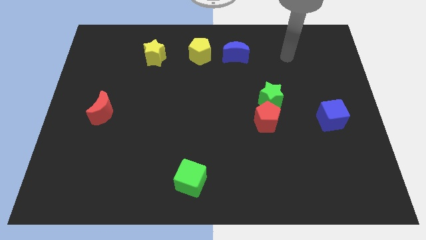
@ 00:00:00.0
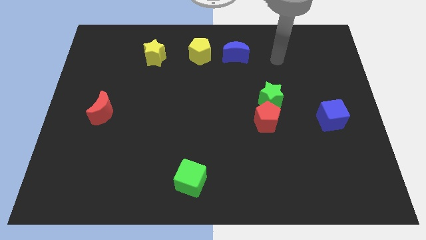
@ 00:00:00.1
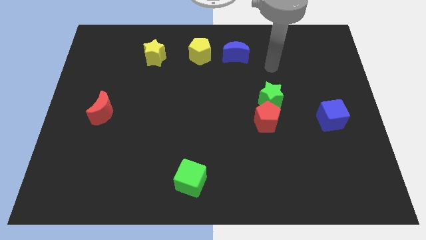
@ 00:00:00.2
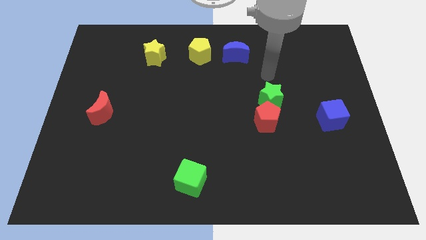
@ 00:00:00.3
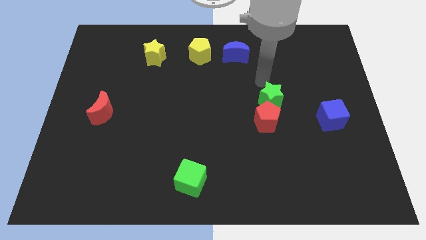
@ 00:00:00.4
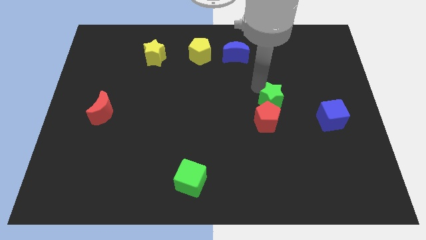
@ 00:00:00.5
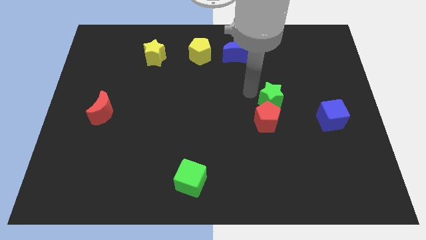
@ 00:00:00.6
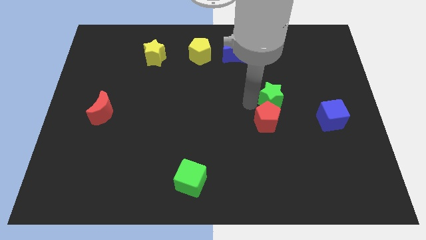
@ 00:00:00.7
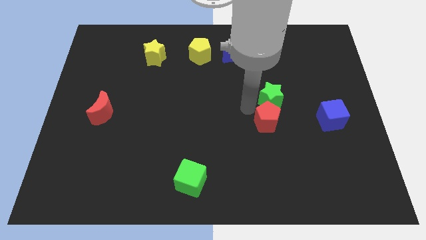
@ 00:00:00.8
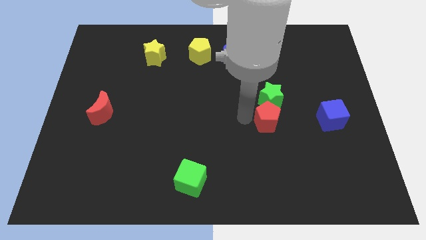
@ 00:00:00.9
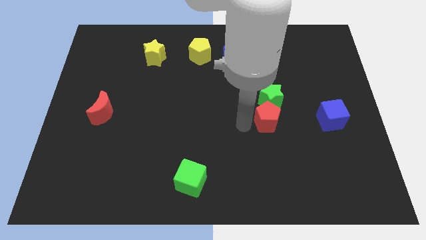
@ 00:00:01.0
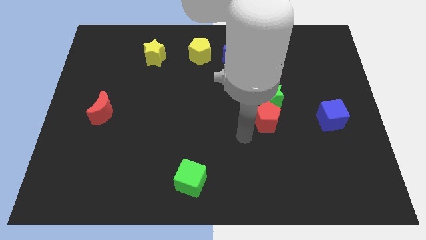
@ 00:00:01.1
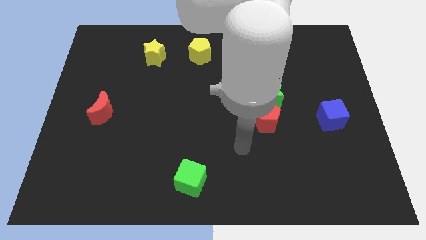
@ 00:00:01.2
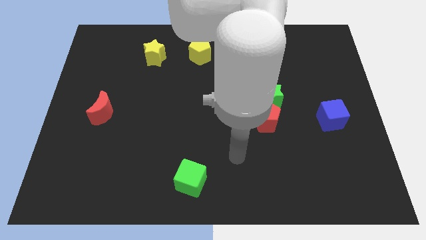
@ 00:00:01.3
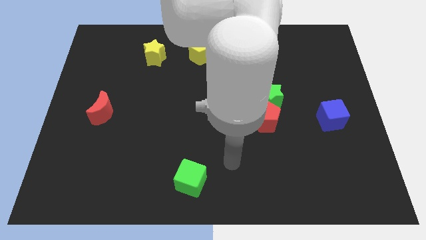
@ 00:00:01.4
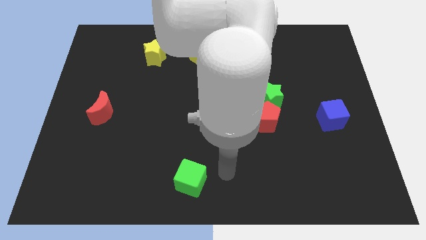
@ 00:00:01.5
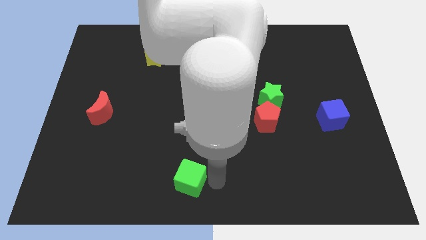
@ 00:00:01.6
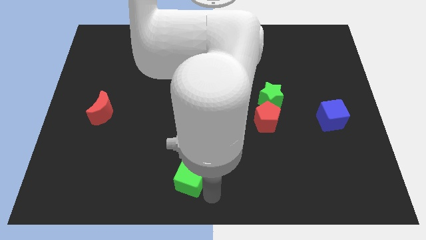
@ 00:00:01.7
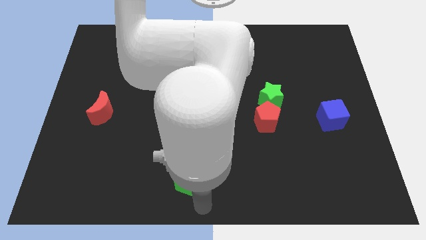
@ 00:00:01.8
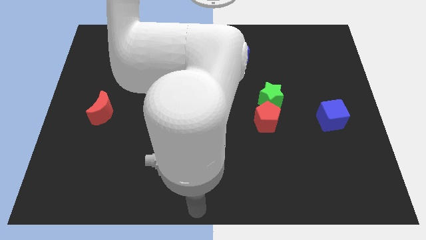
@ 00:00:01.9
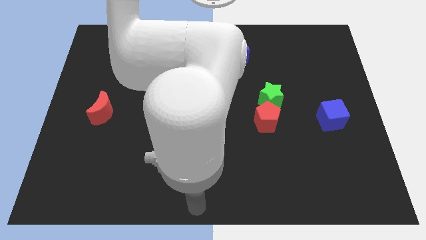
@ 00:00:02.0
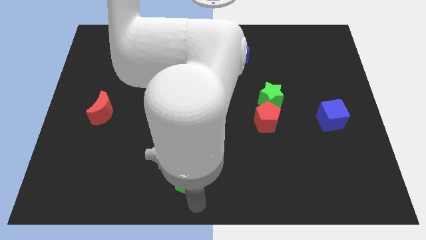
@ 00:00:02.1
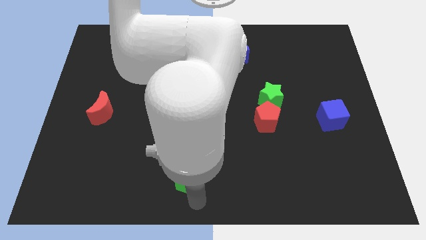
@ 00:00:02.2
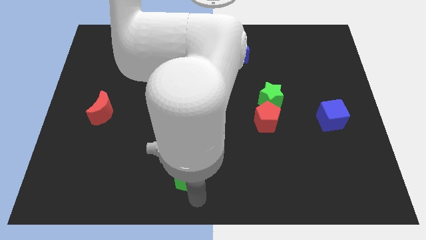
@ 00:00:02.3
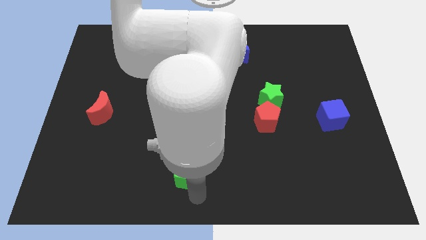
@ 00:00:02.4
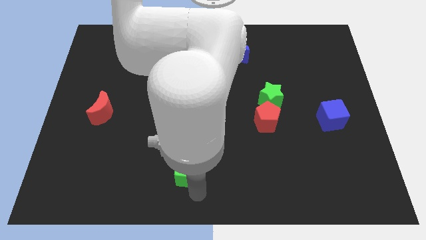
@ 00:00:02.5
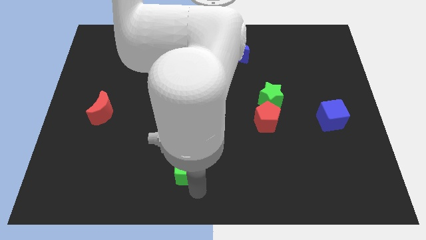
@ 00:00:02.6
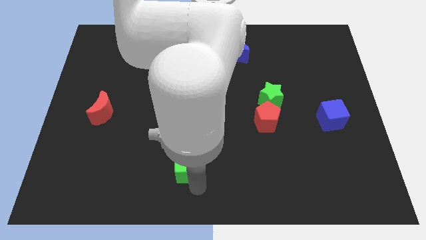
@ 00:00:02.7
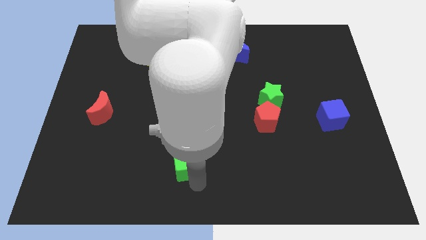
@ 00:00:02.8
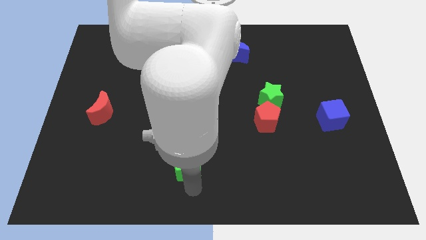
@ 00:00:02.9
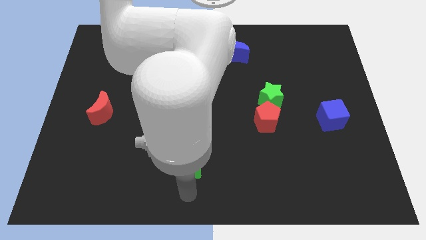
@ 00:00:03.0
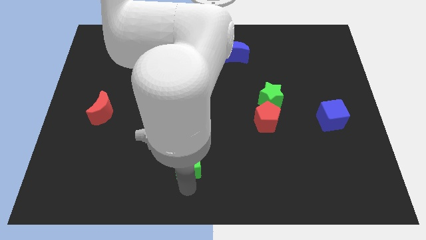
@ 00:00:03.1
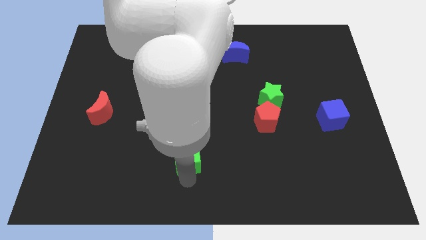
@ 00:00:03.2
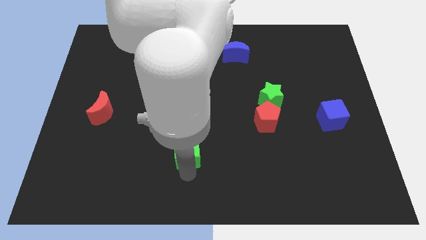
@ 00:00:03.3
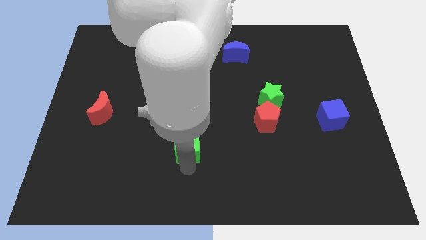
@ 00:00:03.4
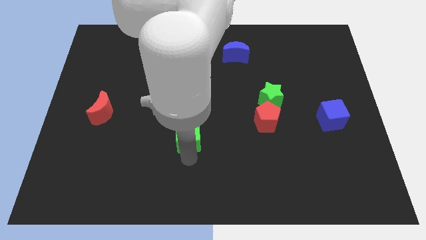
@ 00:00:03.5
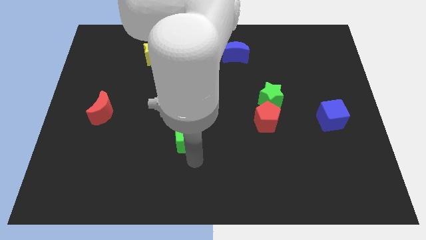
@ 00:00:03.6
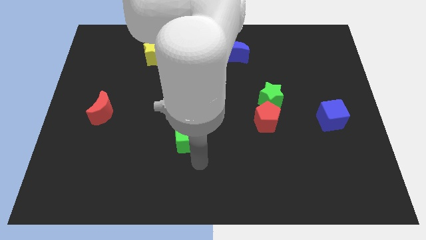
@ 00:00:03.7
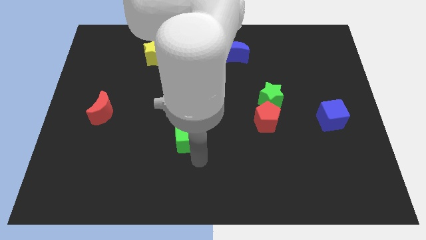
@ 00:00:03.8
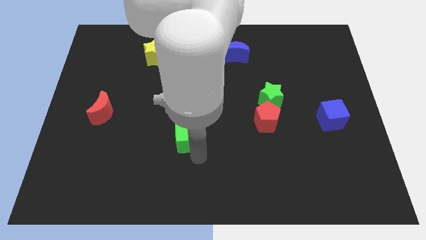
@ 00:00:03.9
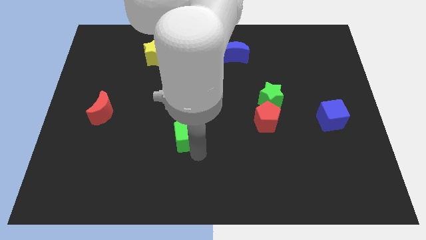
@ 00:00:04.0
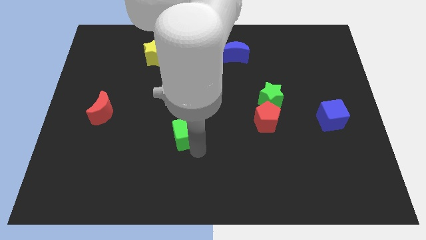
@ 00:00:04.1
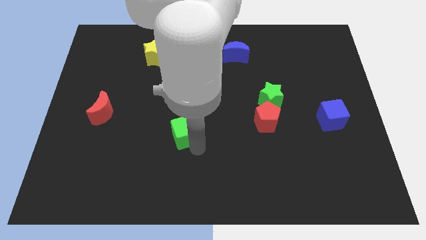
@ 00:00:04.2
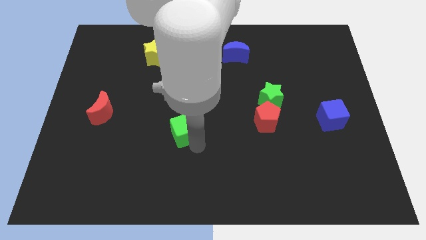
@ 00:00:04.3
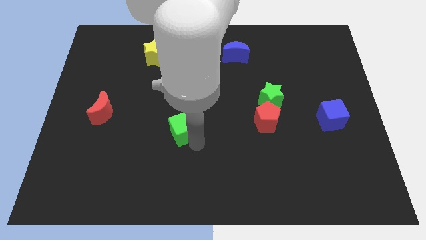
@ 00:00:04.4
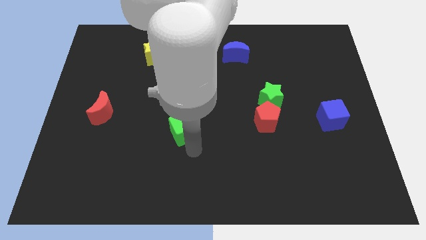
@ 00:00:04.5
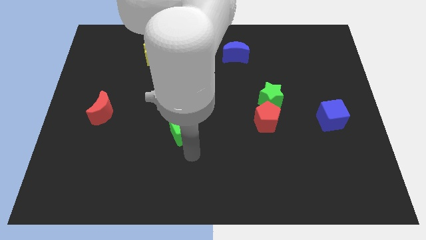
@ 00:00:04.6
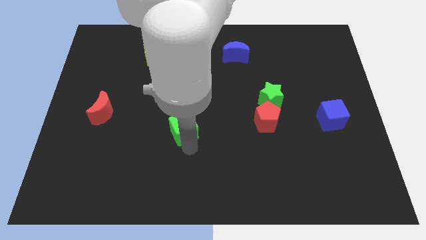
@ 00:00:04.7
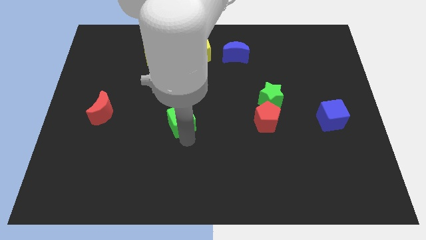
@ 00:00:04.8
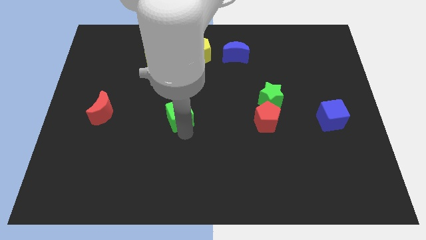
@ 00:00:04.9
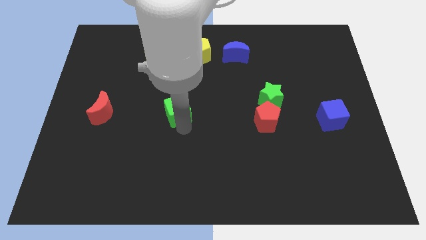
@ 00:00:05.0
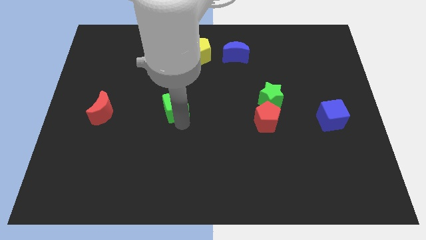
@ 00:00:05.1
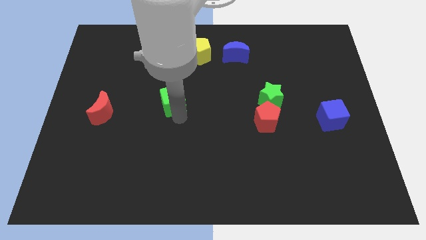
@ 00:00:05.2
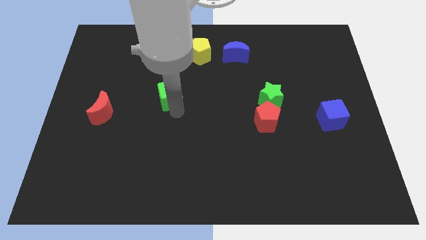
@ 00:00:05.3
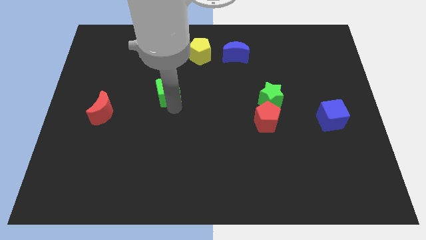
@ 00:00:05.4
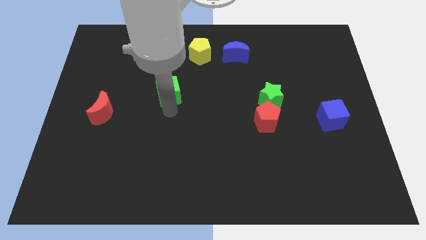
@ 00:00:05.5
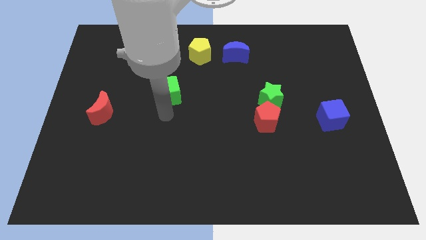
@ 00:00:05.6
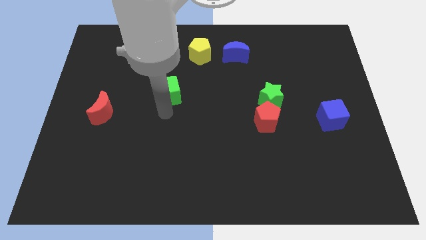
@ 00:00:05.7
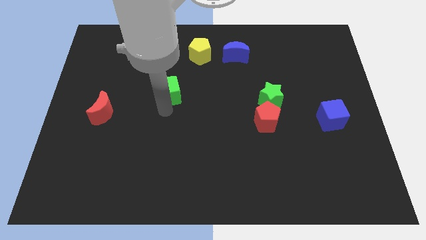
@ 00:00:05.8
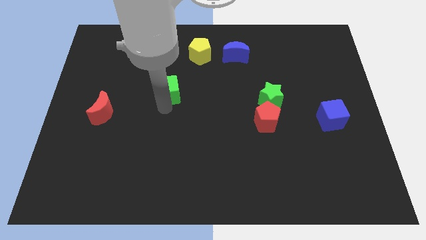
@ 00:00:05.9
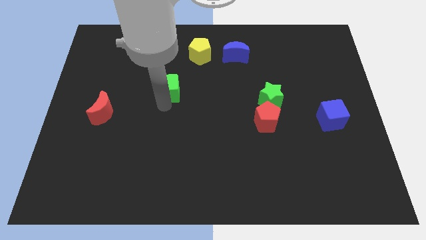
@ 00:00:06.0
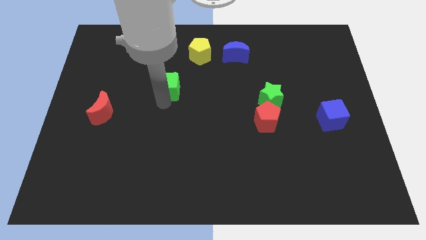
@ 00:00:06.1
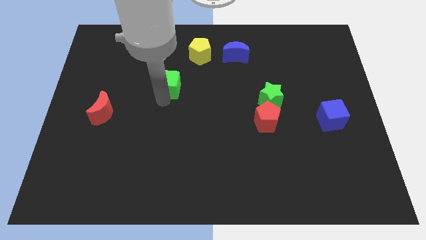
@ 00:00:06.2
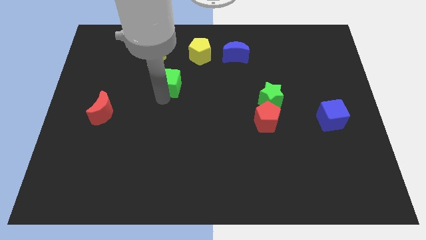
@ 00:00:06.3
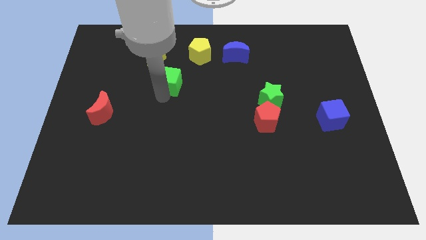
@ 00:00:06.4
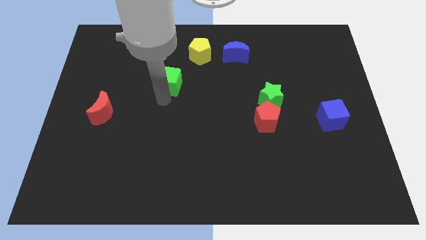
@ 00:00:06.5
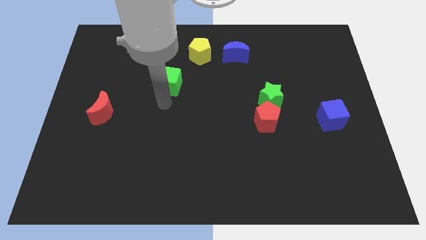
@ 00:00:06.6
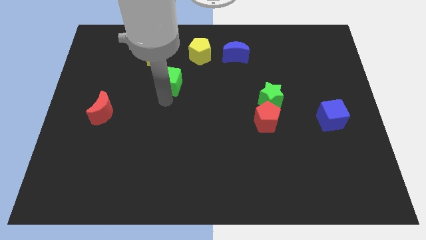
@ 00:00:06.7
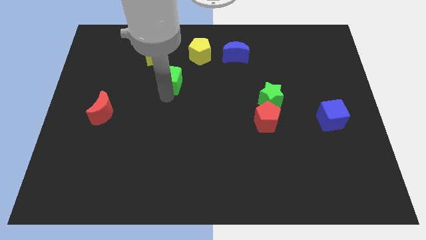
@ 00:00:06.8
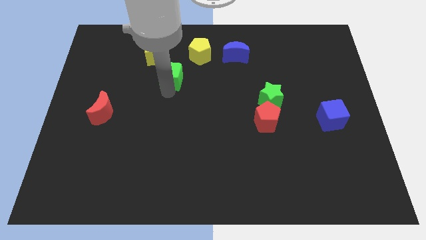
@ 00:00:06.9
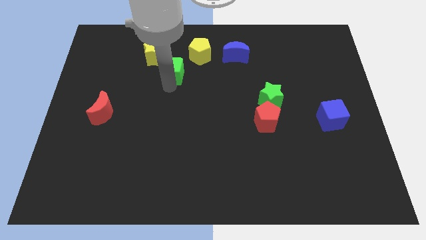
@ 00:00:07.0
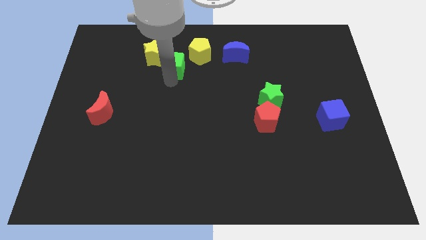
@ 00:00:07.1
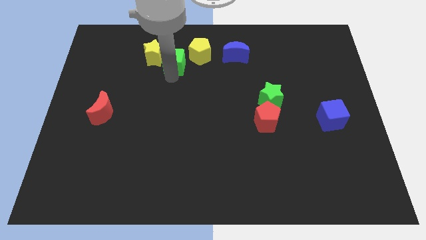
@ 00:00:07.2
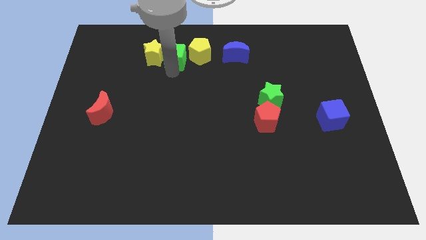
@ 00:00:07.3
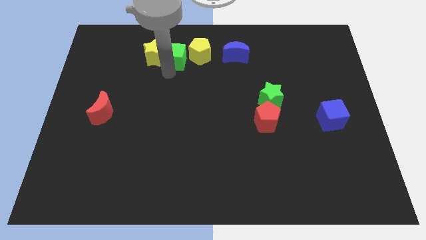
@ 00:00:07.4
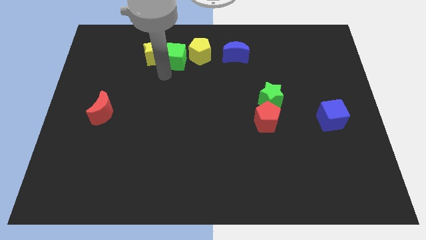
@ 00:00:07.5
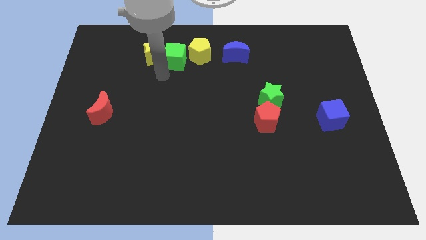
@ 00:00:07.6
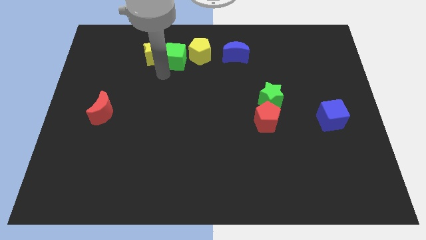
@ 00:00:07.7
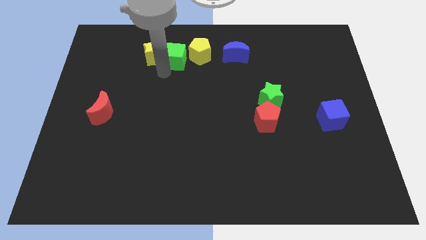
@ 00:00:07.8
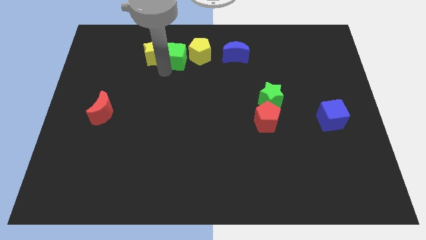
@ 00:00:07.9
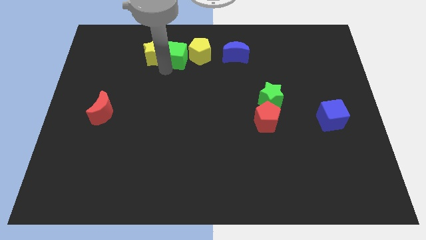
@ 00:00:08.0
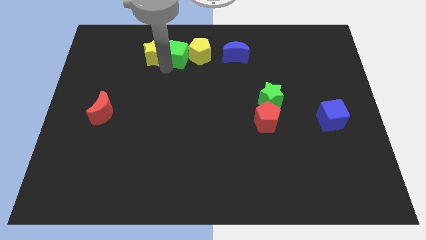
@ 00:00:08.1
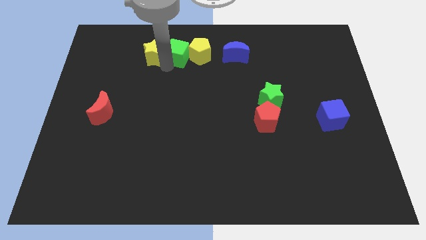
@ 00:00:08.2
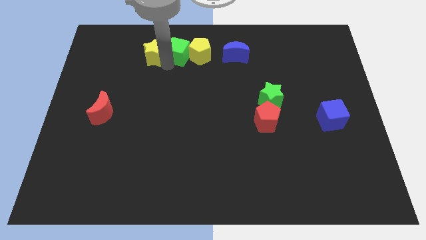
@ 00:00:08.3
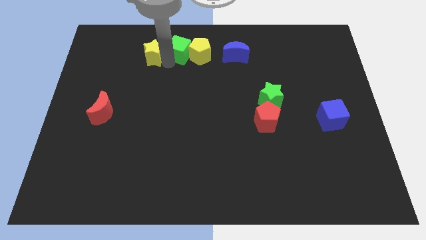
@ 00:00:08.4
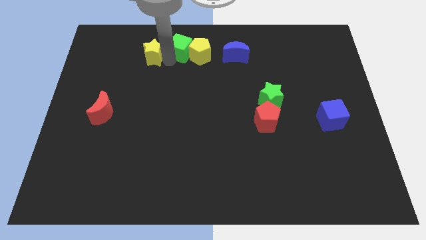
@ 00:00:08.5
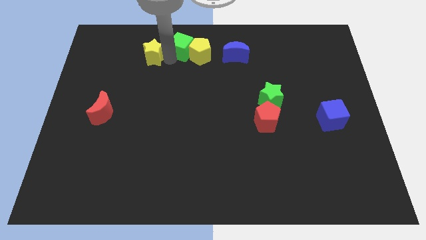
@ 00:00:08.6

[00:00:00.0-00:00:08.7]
put the green cube to the top side
